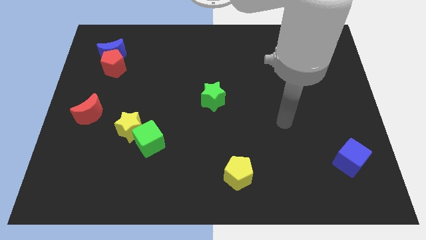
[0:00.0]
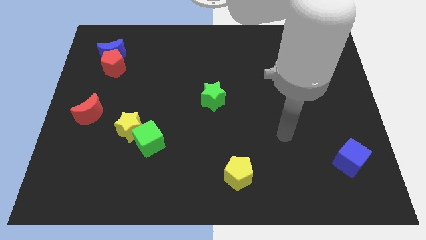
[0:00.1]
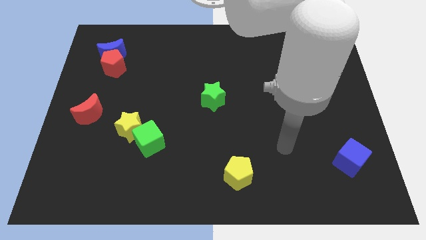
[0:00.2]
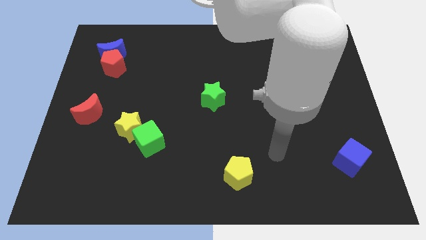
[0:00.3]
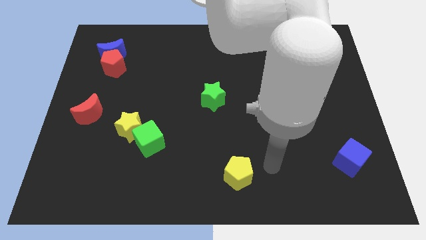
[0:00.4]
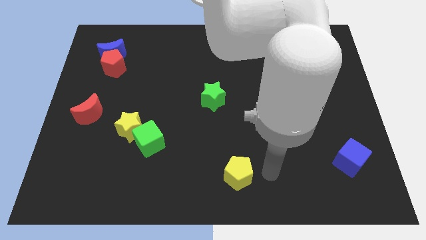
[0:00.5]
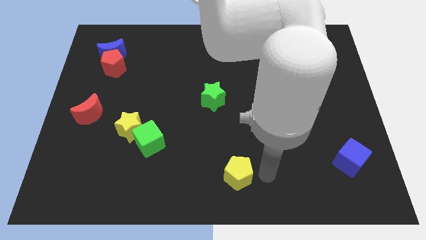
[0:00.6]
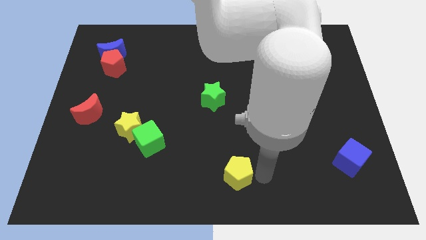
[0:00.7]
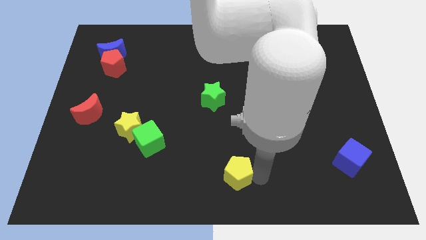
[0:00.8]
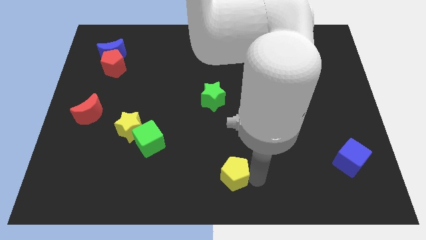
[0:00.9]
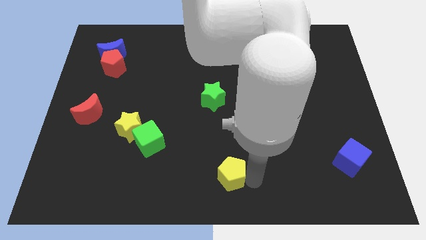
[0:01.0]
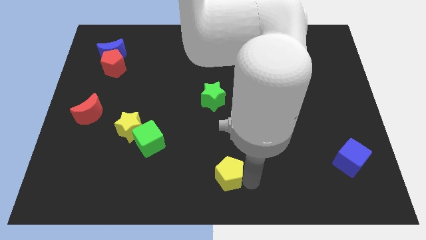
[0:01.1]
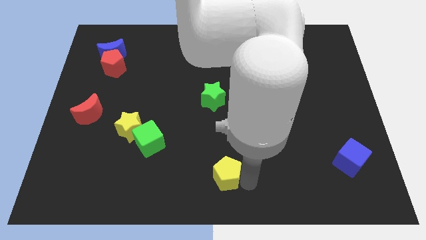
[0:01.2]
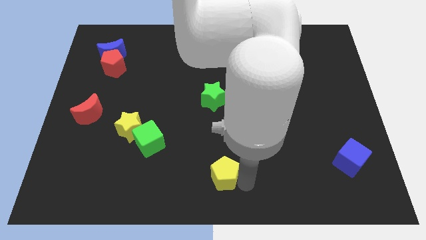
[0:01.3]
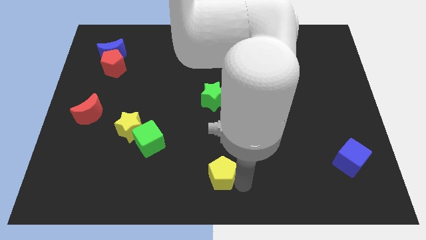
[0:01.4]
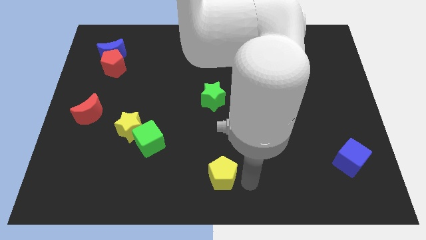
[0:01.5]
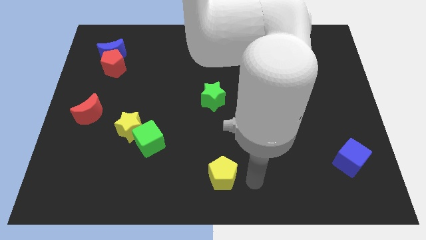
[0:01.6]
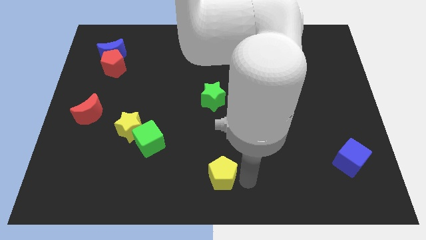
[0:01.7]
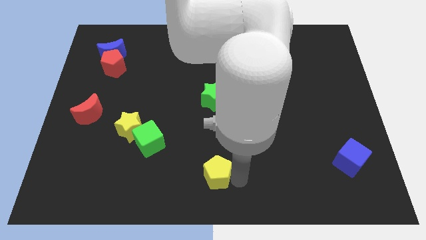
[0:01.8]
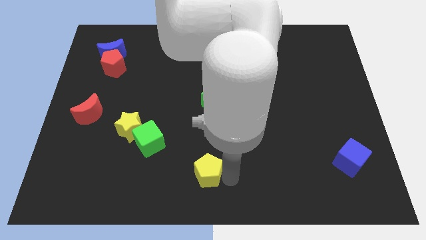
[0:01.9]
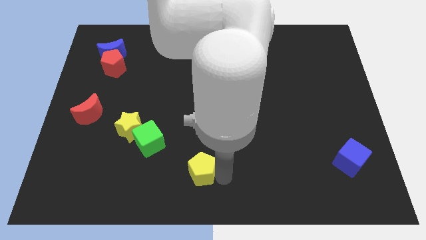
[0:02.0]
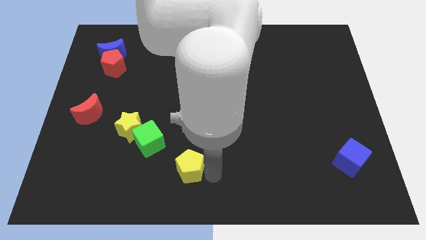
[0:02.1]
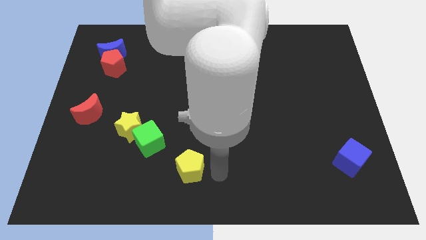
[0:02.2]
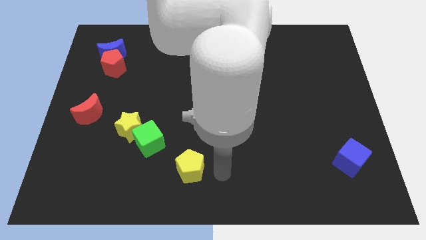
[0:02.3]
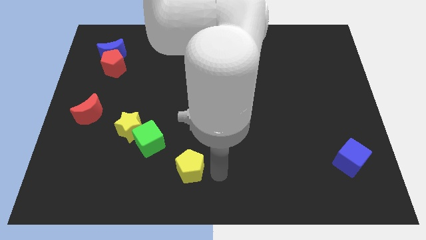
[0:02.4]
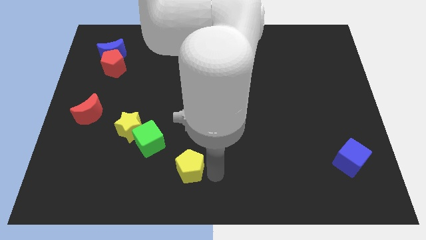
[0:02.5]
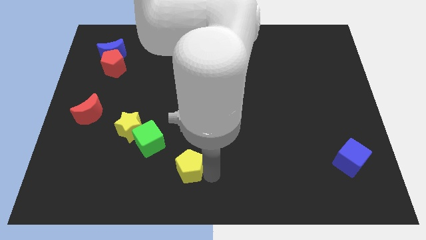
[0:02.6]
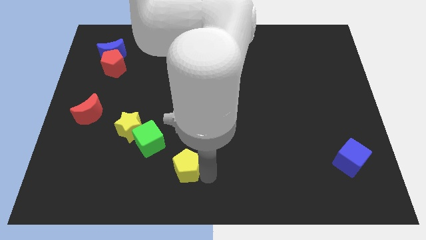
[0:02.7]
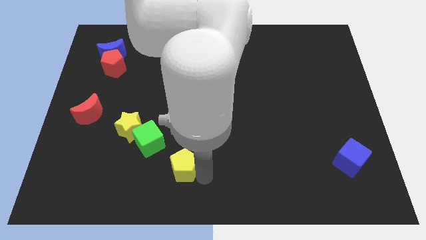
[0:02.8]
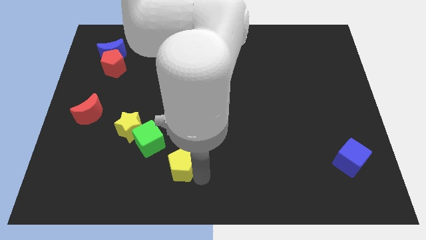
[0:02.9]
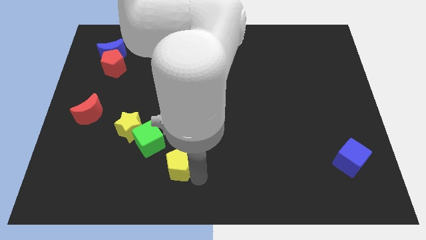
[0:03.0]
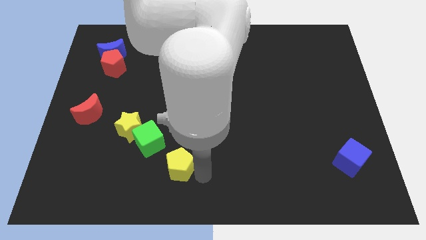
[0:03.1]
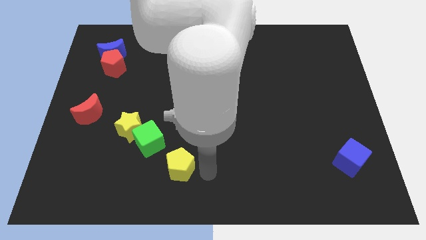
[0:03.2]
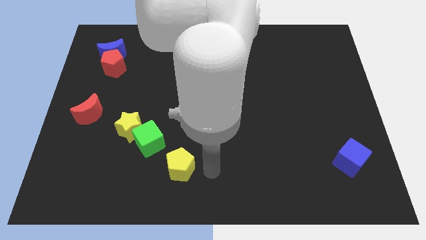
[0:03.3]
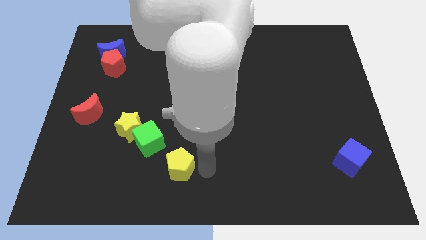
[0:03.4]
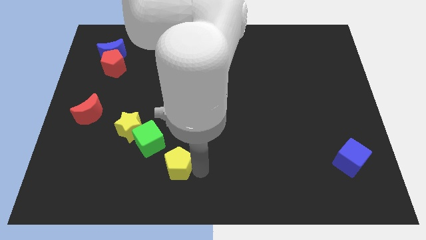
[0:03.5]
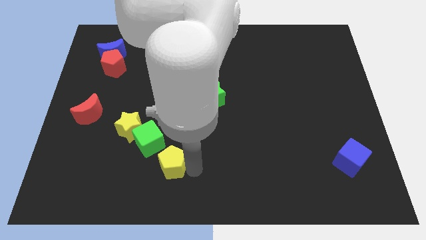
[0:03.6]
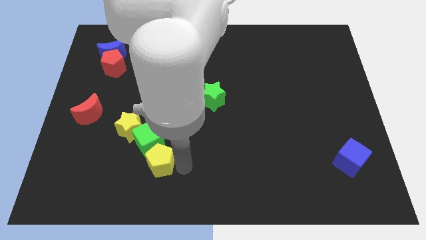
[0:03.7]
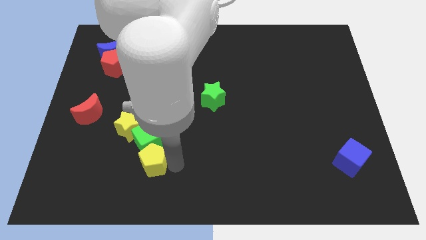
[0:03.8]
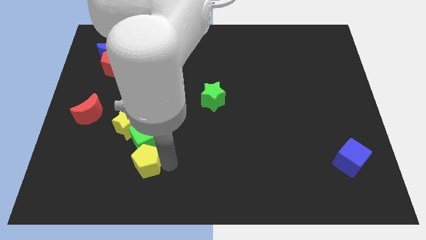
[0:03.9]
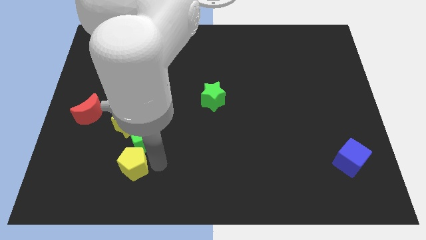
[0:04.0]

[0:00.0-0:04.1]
push the yellow pentagon left

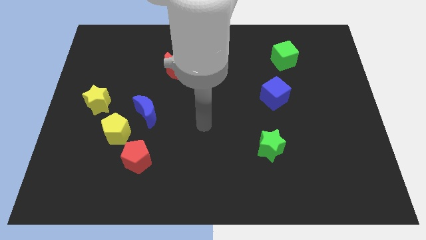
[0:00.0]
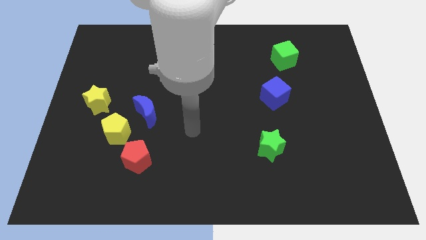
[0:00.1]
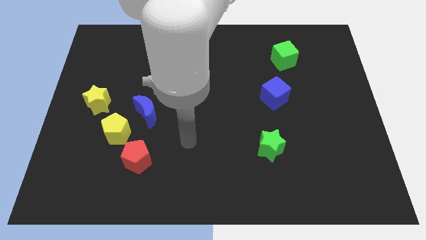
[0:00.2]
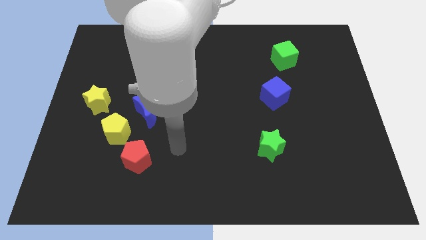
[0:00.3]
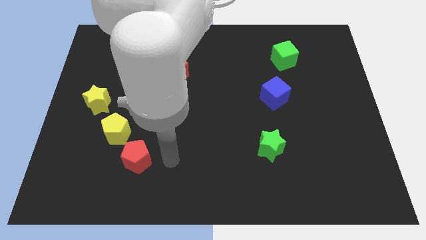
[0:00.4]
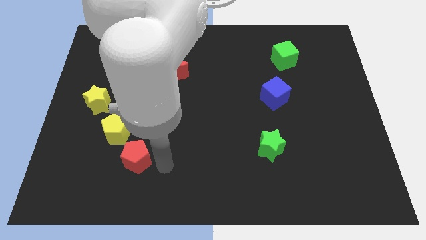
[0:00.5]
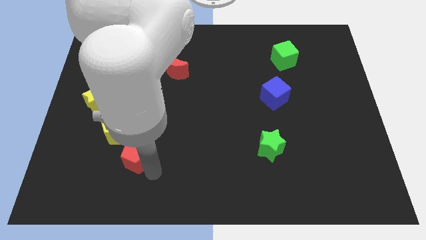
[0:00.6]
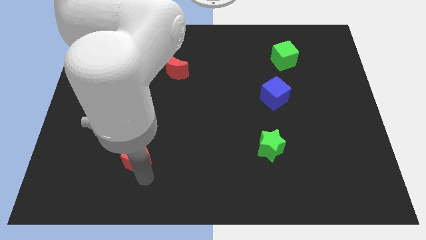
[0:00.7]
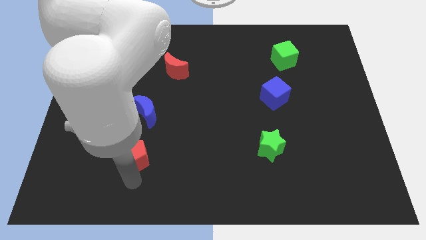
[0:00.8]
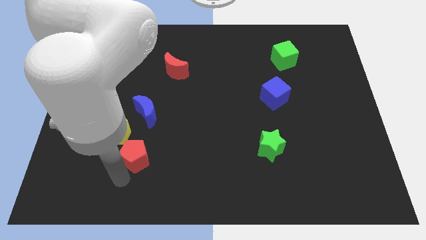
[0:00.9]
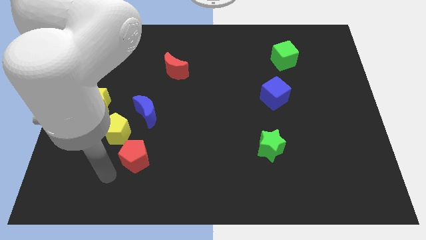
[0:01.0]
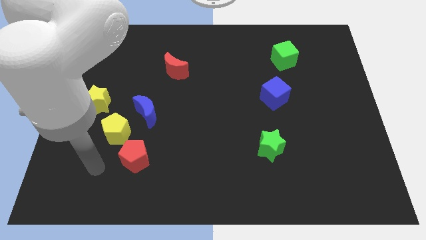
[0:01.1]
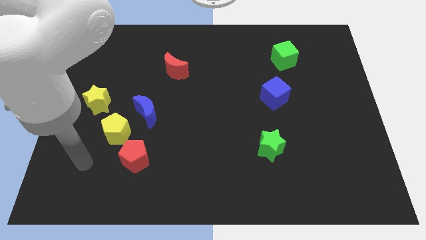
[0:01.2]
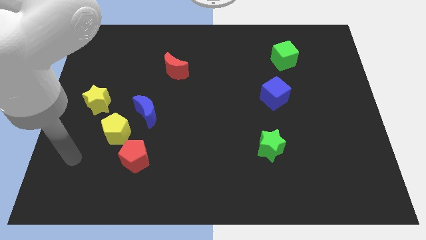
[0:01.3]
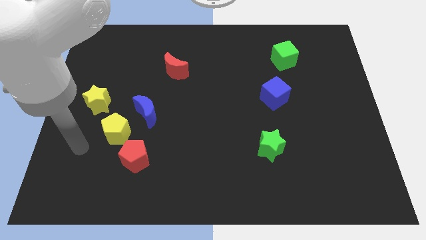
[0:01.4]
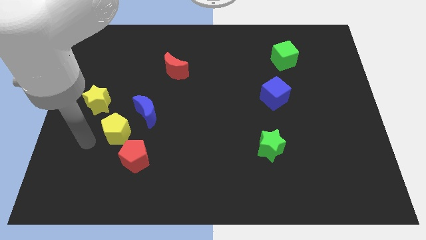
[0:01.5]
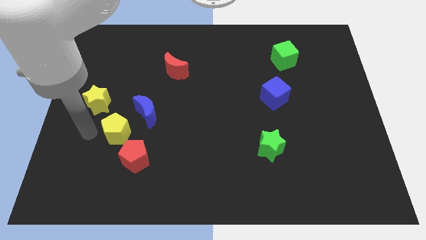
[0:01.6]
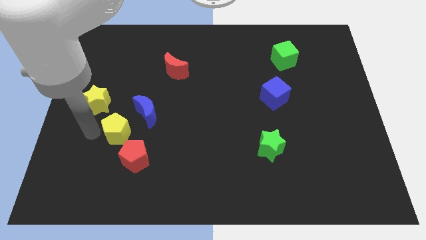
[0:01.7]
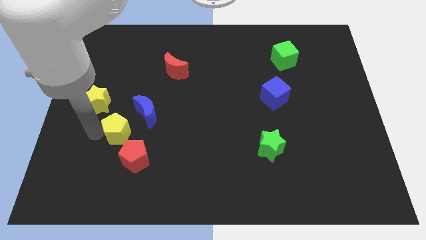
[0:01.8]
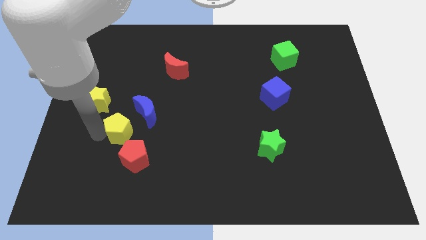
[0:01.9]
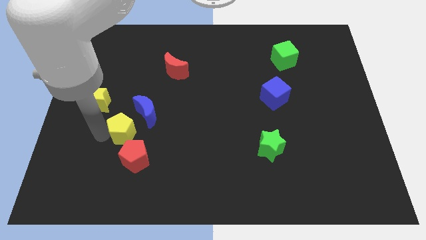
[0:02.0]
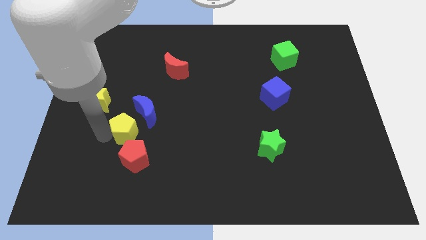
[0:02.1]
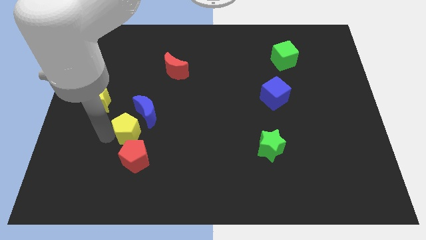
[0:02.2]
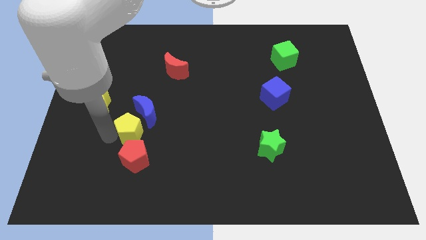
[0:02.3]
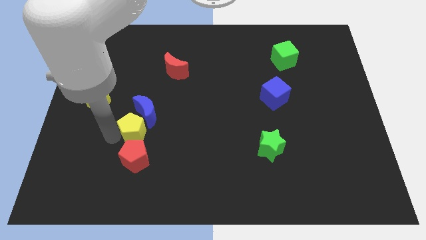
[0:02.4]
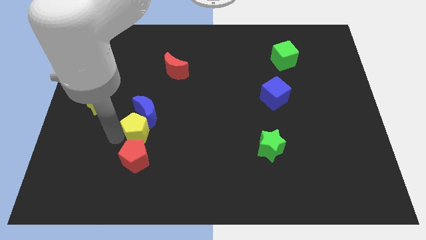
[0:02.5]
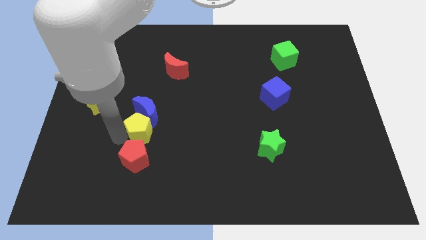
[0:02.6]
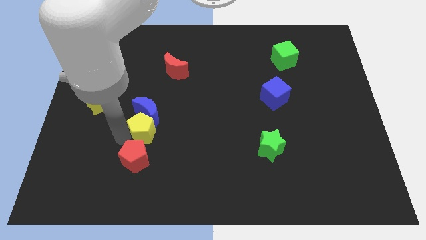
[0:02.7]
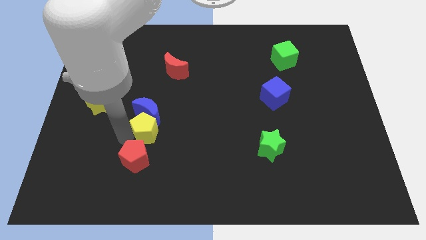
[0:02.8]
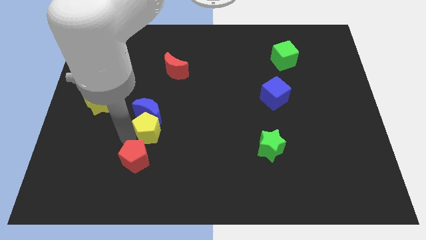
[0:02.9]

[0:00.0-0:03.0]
push the yellow pentagon slightly right

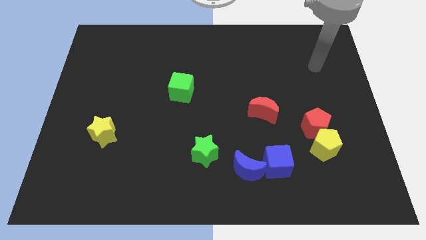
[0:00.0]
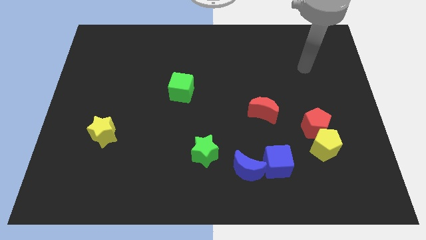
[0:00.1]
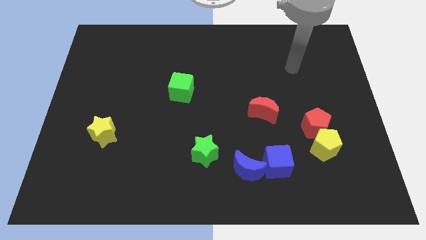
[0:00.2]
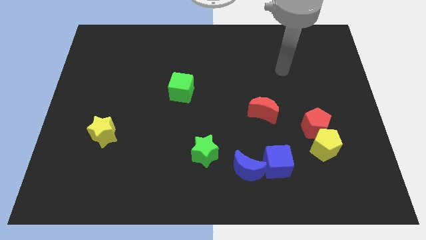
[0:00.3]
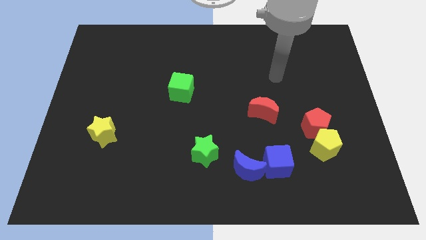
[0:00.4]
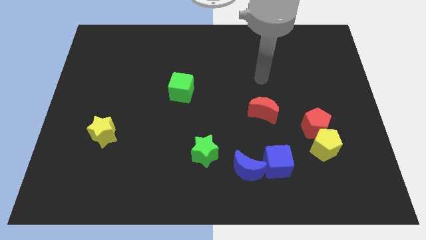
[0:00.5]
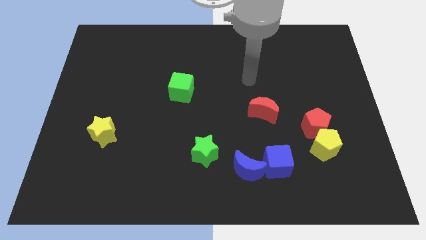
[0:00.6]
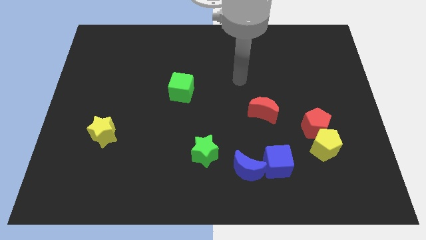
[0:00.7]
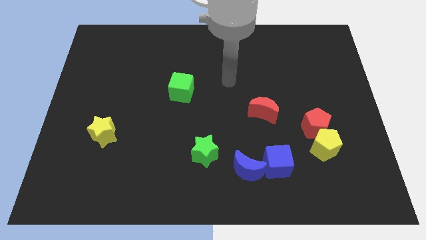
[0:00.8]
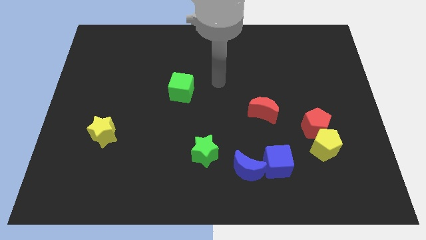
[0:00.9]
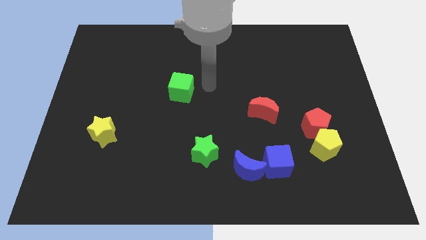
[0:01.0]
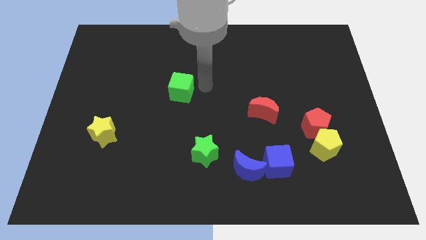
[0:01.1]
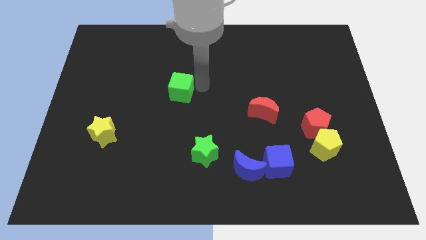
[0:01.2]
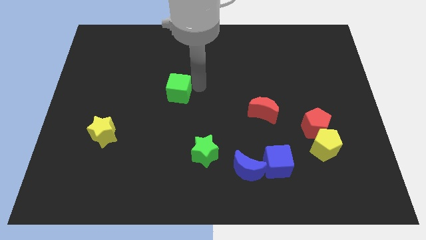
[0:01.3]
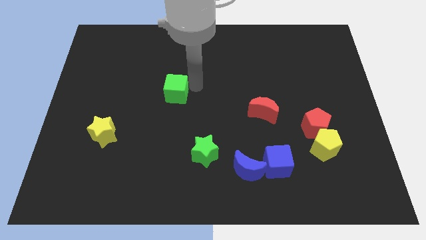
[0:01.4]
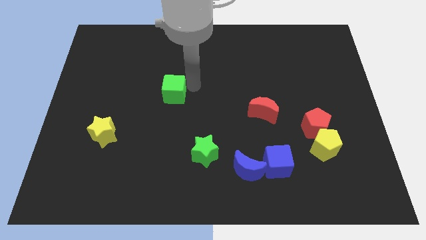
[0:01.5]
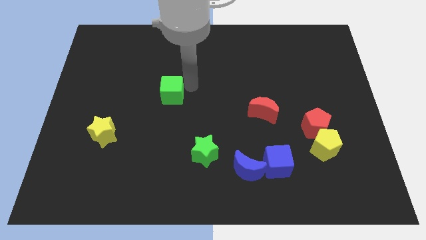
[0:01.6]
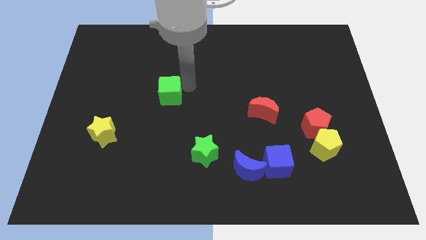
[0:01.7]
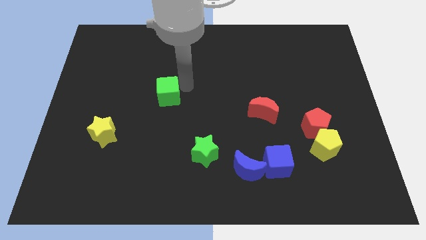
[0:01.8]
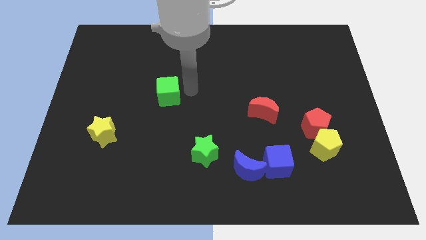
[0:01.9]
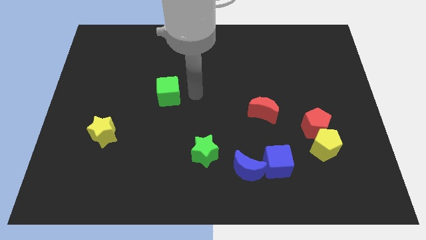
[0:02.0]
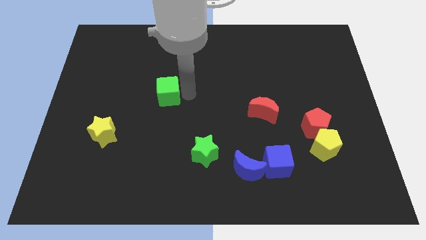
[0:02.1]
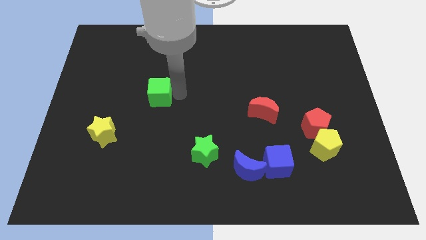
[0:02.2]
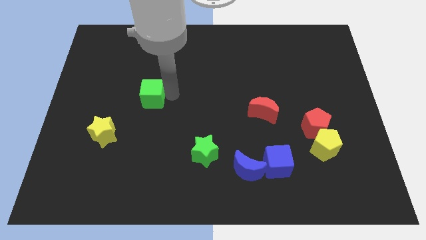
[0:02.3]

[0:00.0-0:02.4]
slightly slide the green cube to the left
